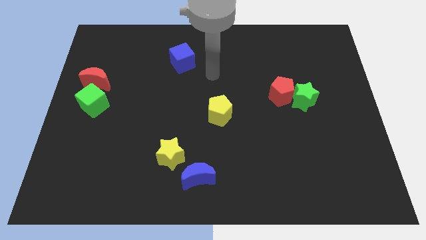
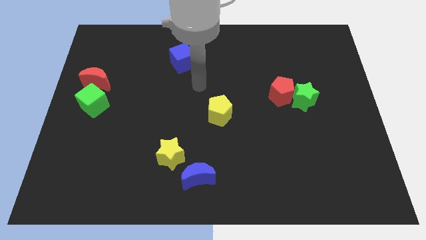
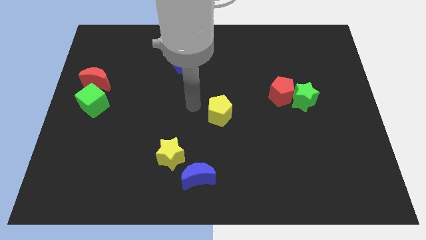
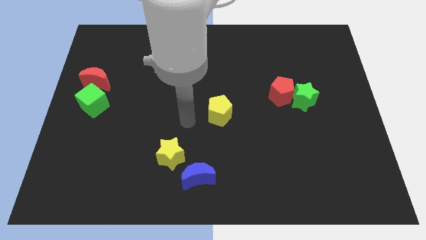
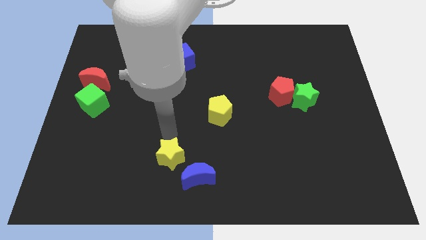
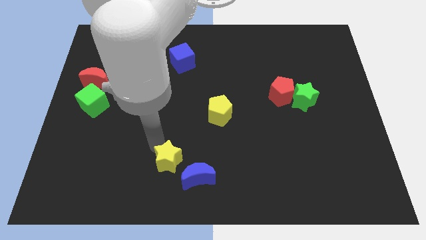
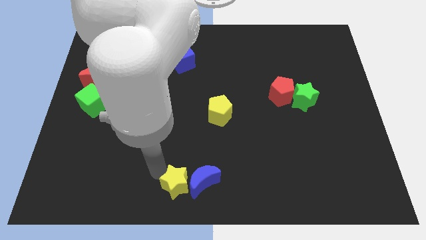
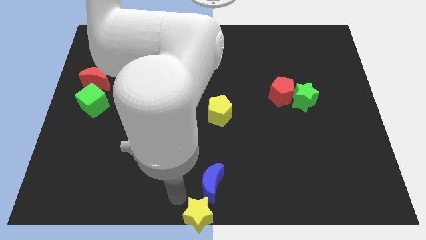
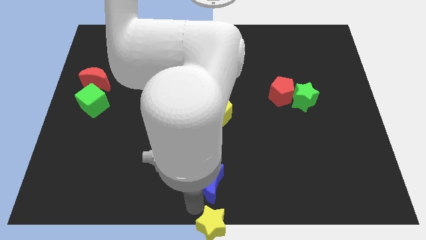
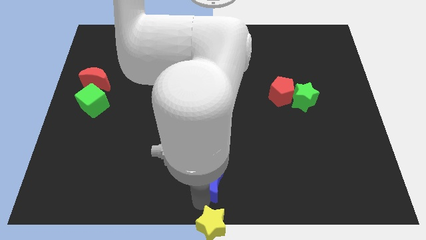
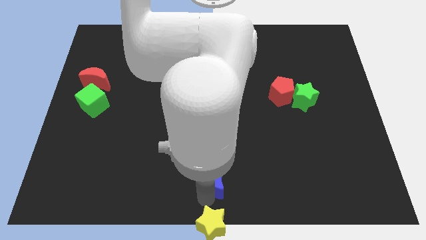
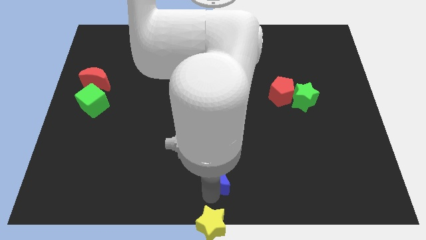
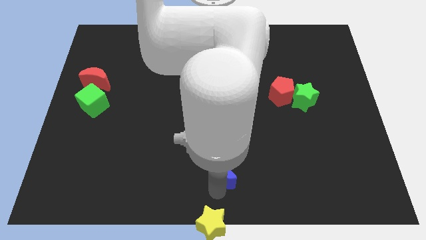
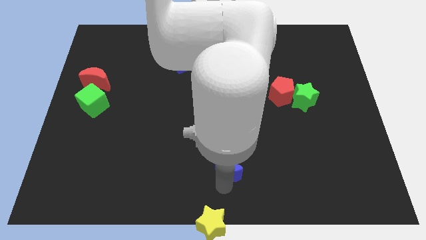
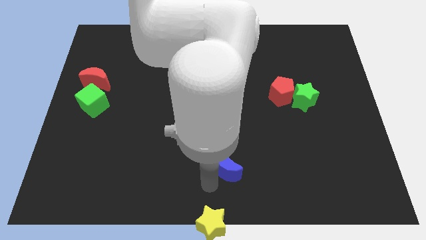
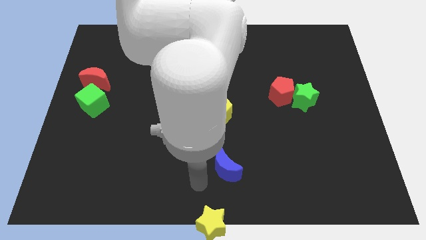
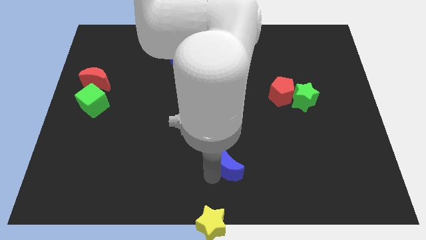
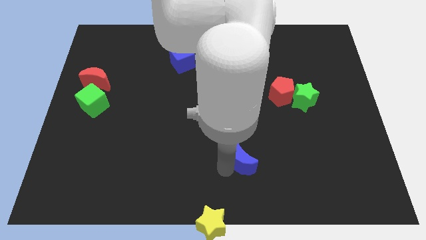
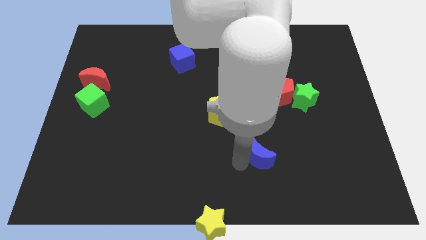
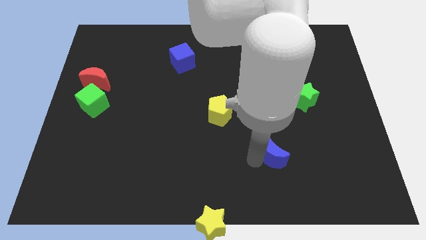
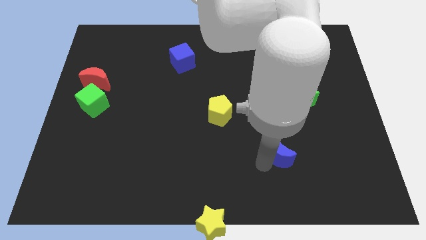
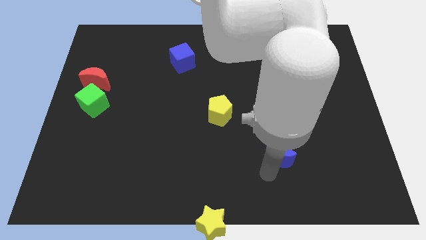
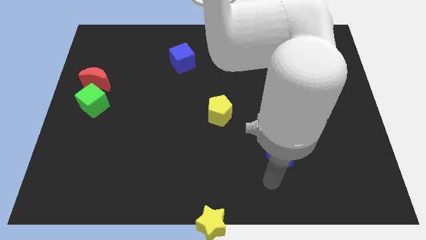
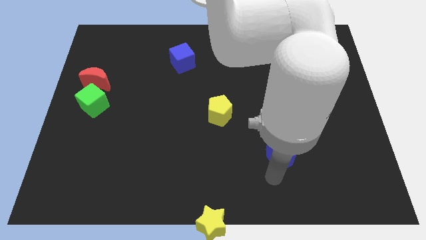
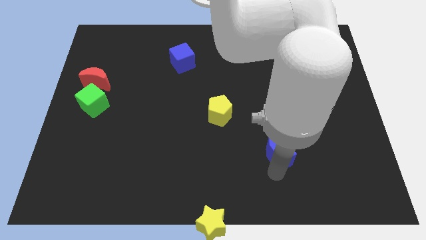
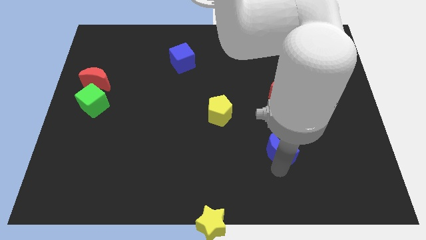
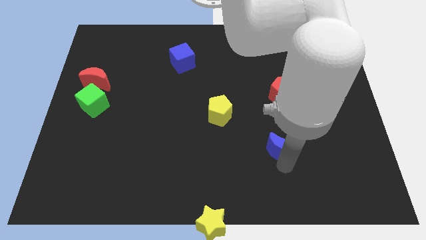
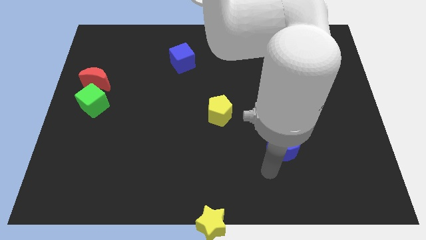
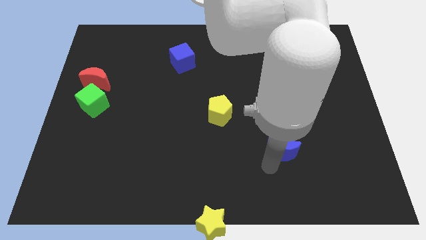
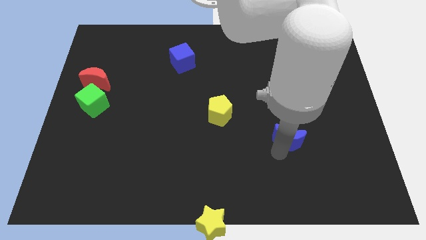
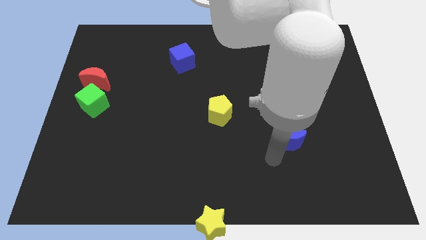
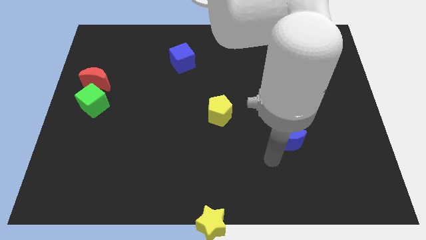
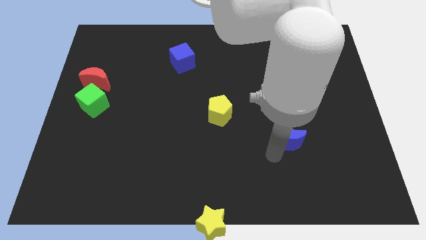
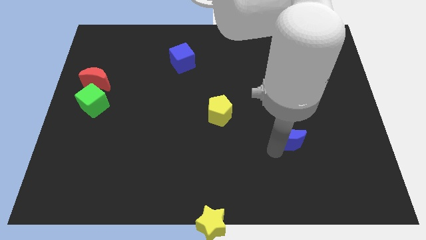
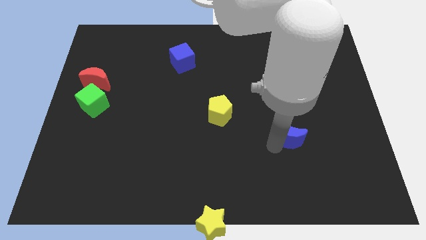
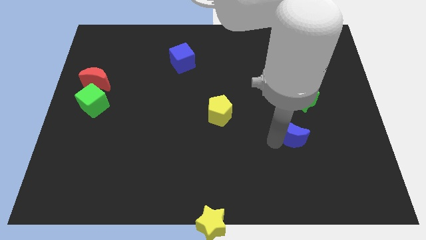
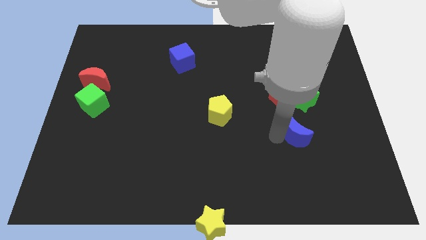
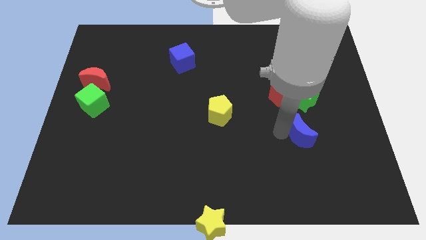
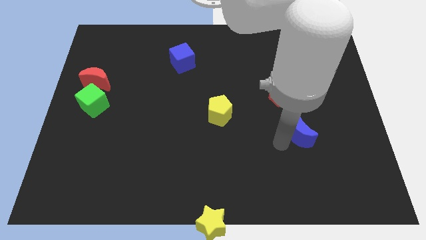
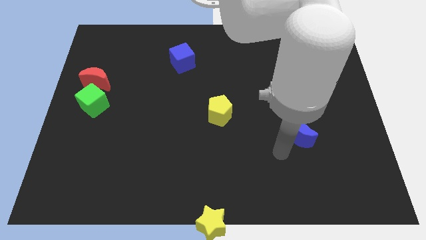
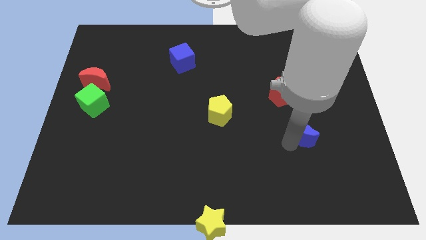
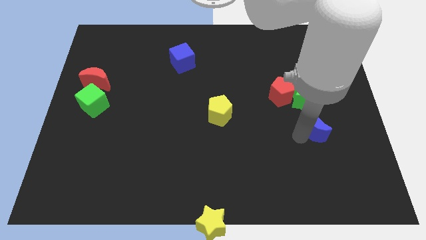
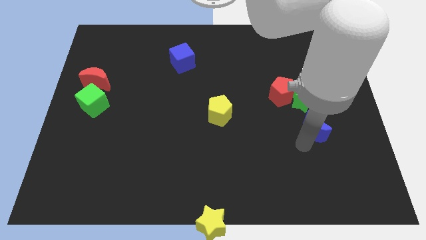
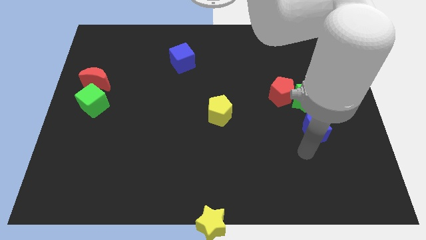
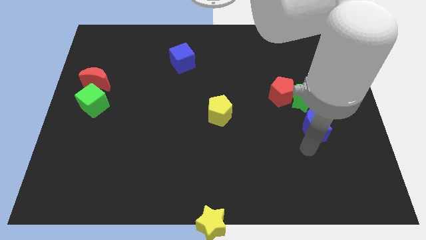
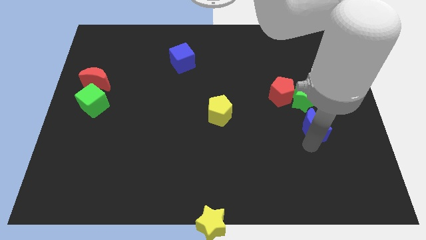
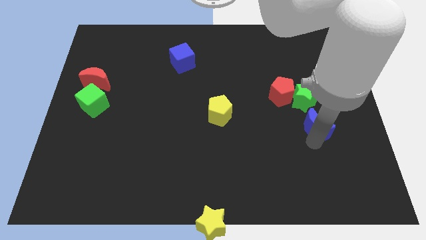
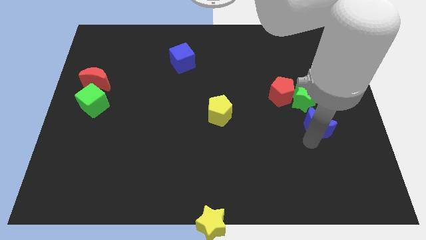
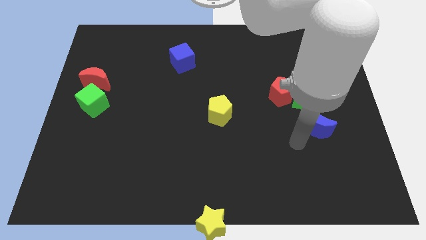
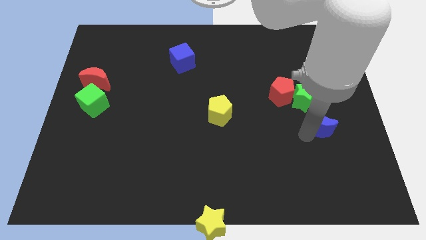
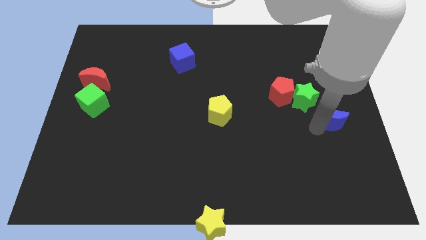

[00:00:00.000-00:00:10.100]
push the blue moon to the center right

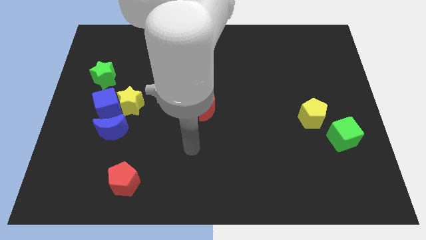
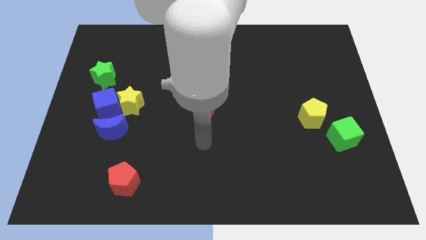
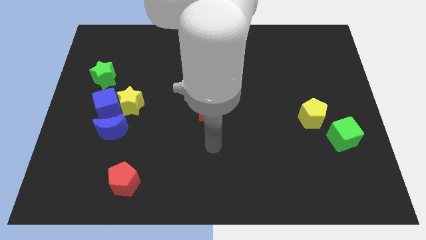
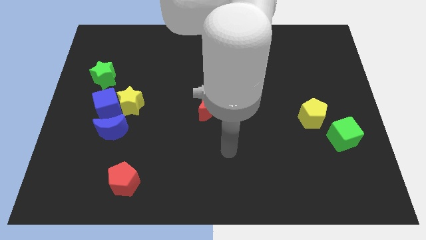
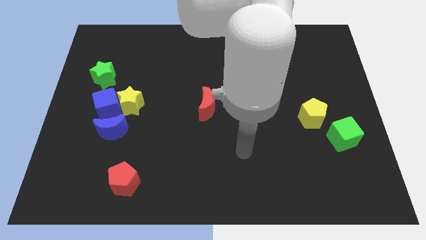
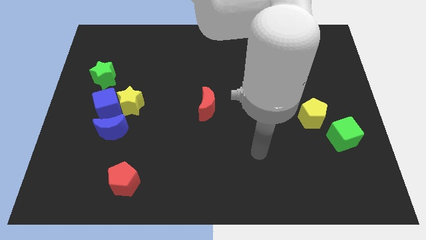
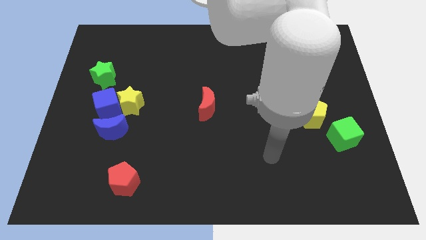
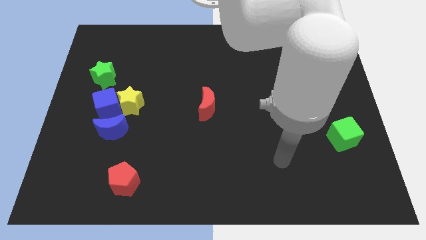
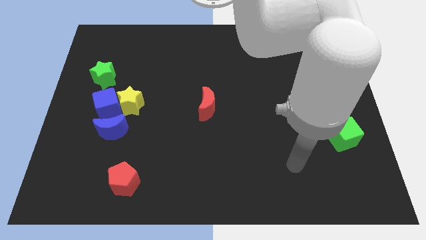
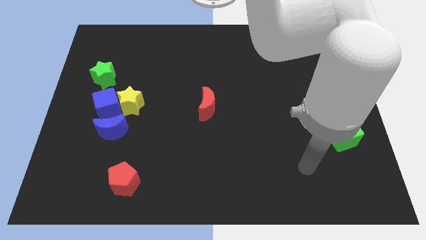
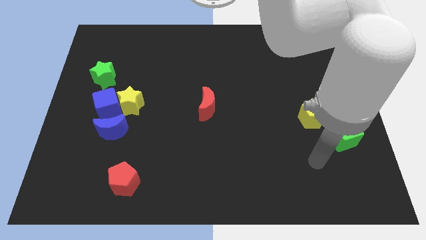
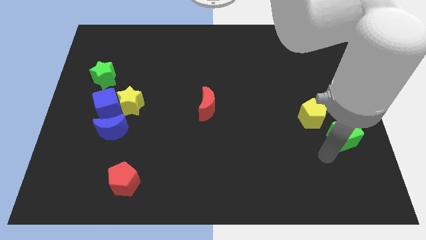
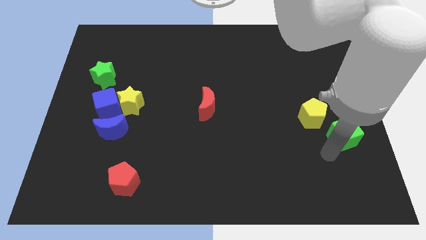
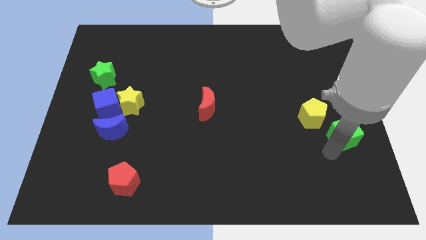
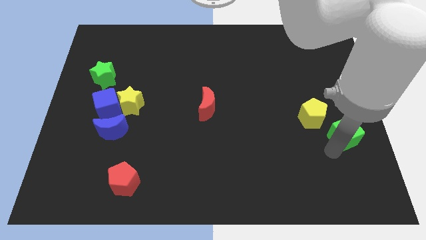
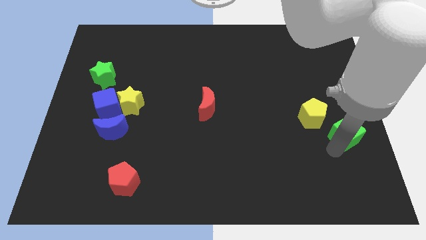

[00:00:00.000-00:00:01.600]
slide the green cube to the center right

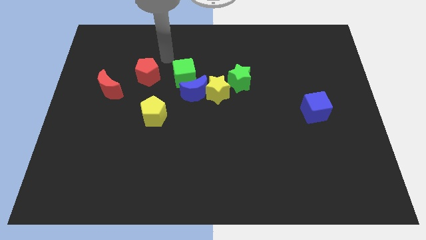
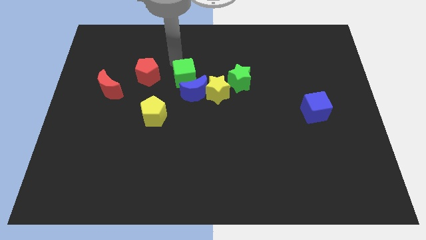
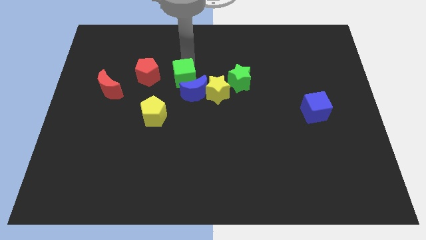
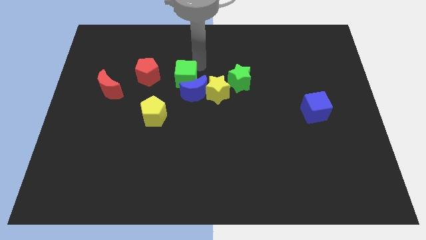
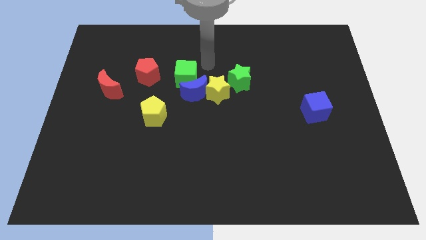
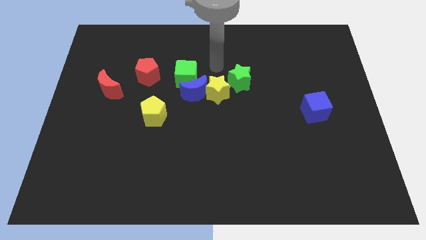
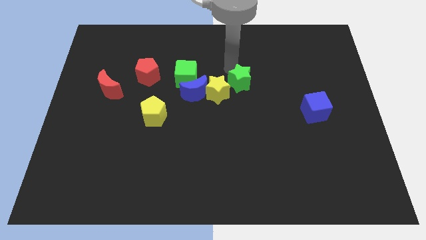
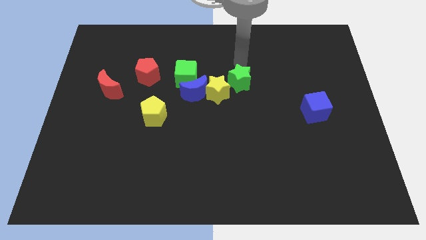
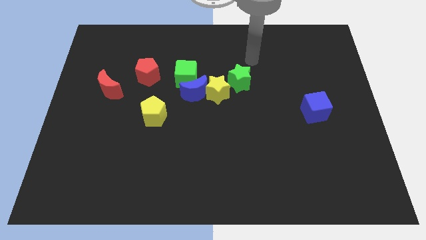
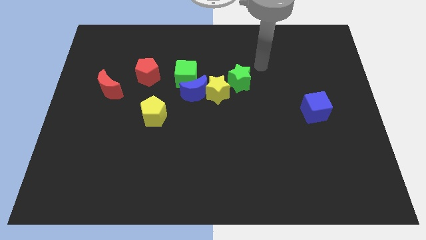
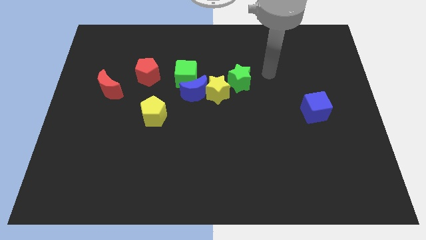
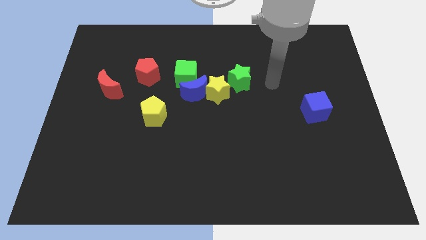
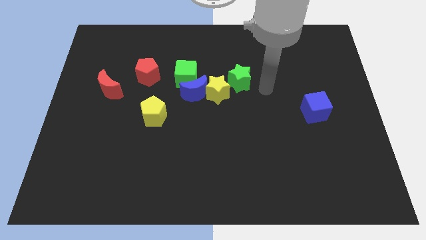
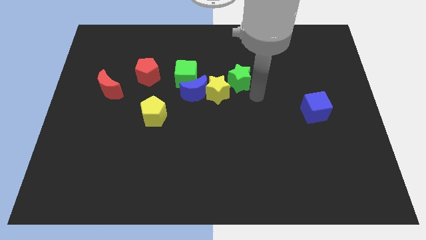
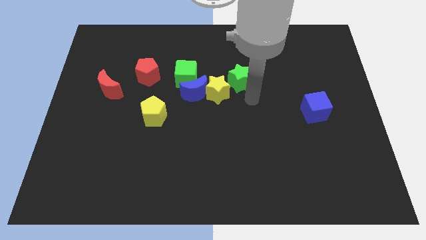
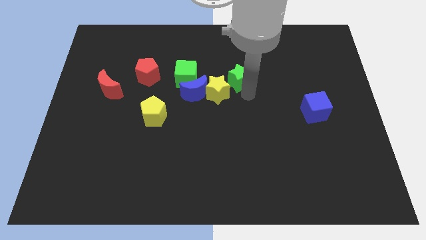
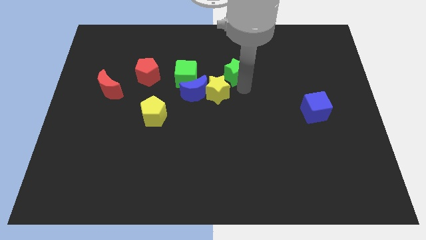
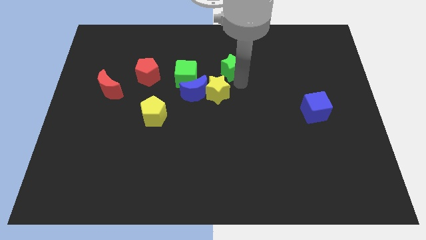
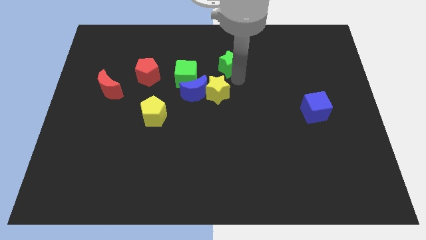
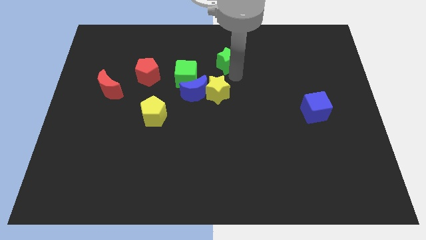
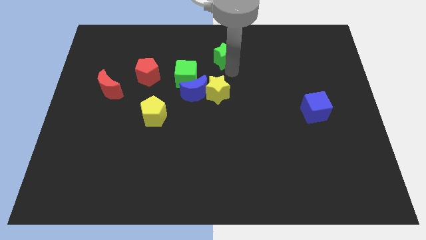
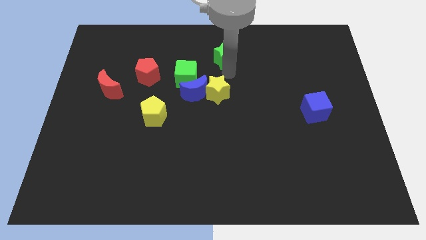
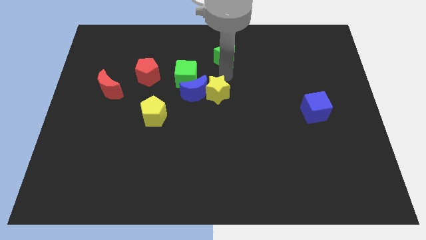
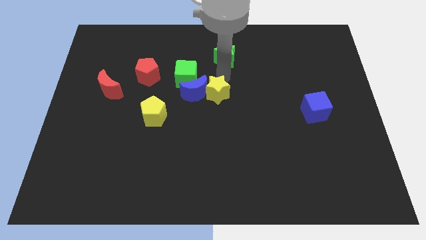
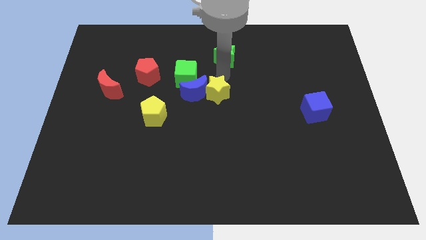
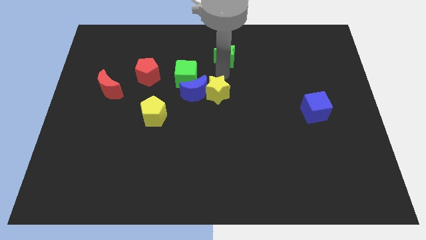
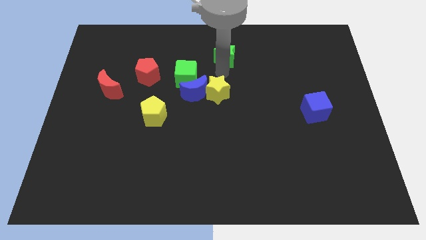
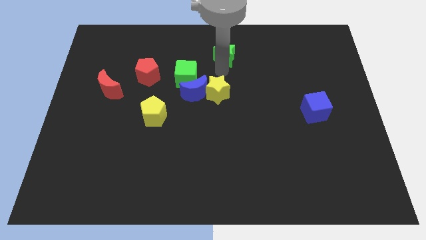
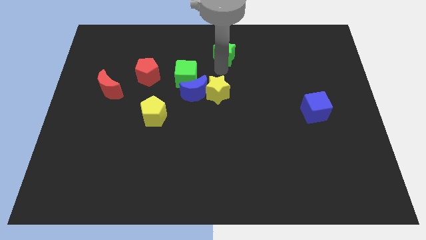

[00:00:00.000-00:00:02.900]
slide the green star to the towards your base
